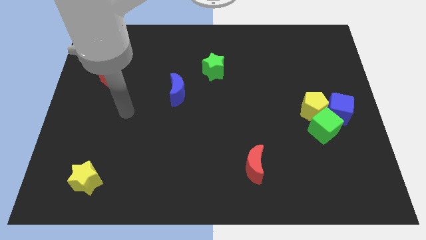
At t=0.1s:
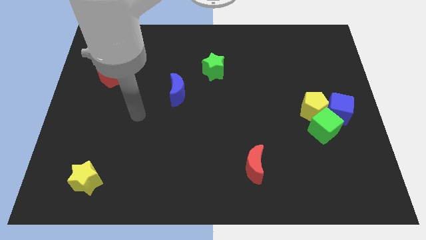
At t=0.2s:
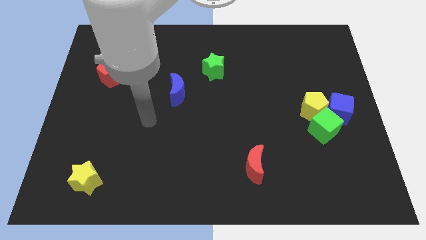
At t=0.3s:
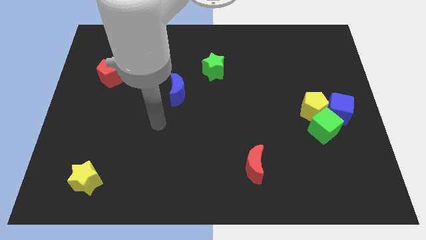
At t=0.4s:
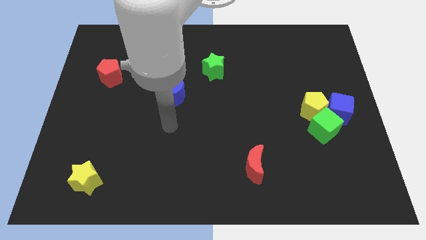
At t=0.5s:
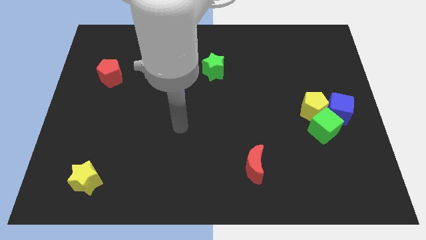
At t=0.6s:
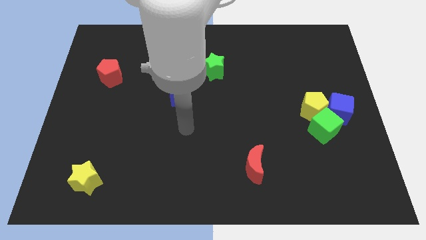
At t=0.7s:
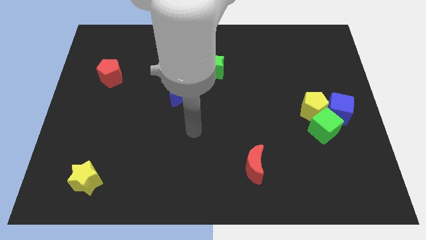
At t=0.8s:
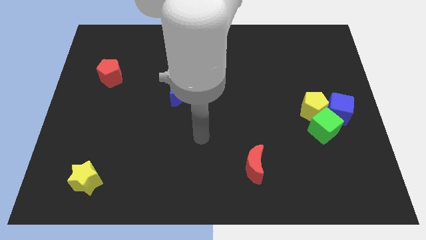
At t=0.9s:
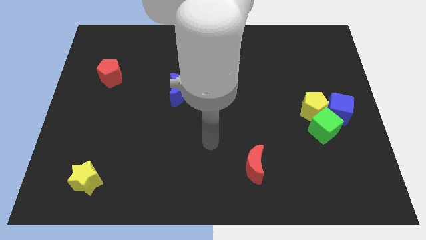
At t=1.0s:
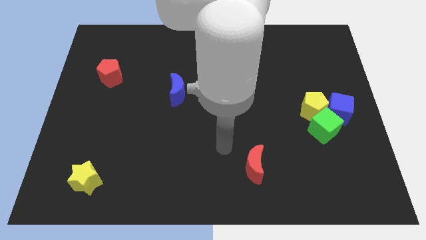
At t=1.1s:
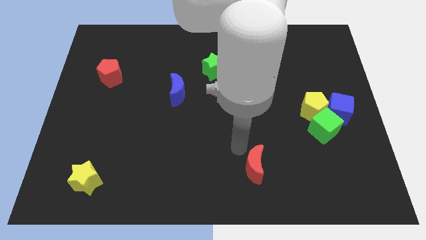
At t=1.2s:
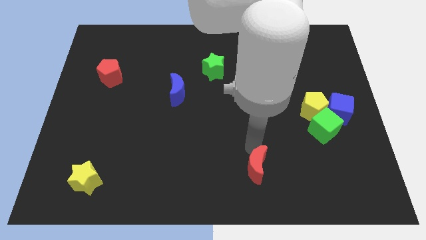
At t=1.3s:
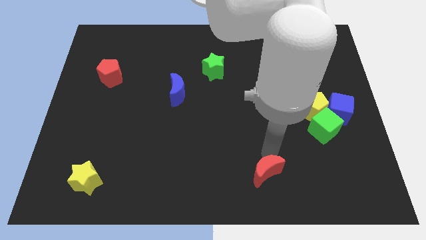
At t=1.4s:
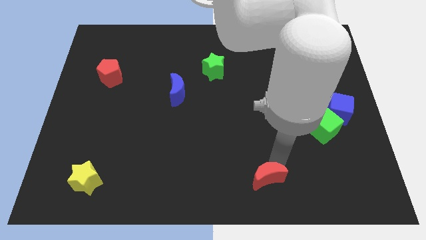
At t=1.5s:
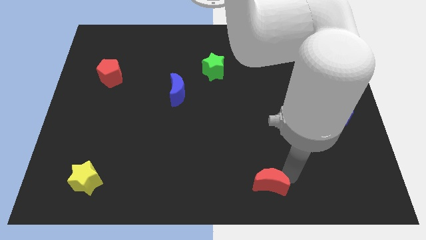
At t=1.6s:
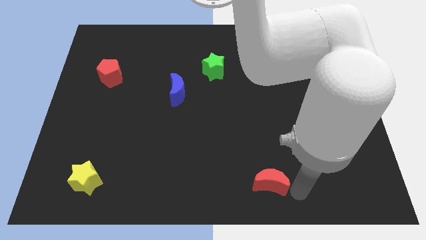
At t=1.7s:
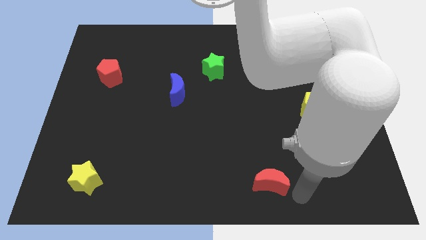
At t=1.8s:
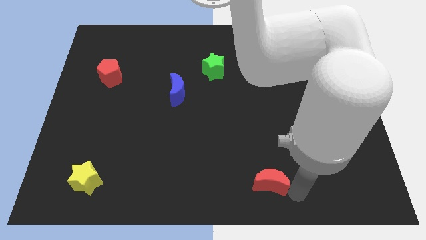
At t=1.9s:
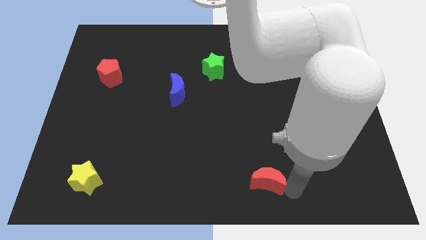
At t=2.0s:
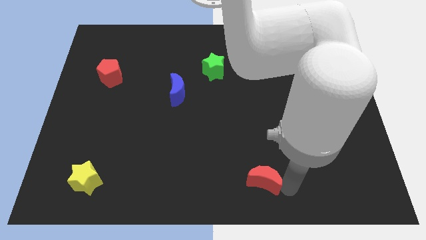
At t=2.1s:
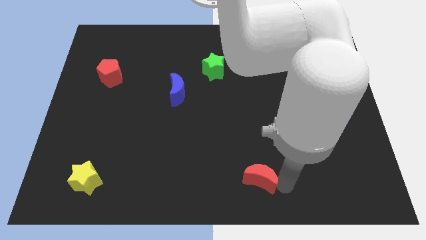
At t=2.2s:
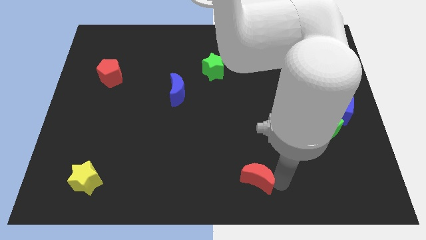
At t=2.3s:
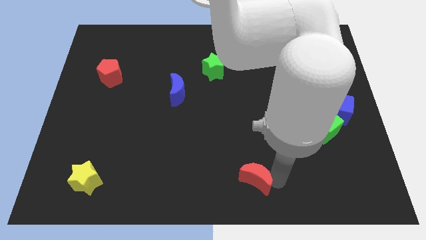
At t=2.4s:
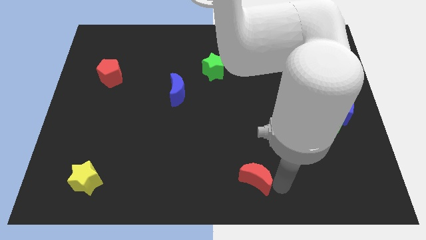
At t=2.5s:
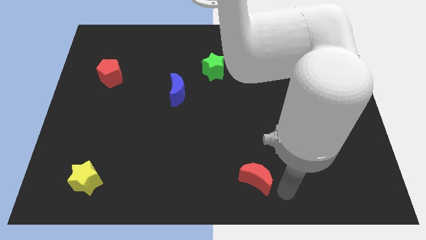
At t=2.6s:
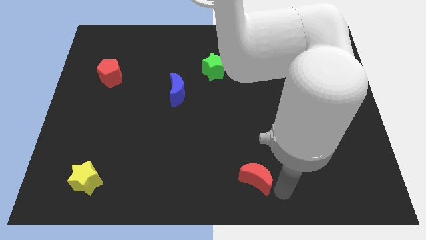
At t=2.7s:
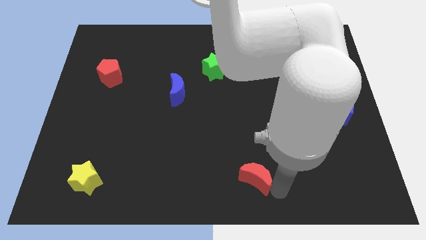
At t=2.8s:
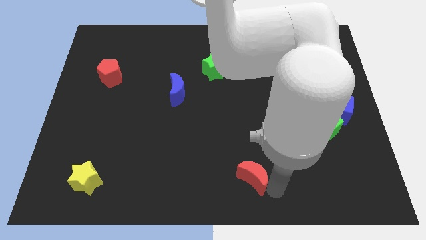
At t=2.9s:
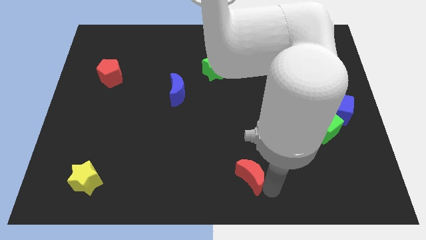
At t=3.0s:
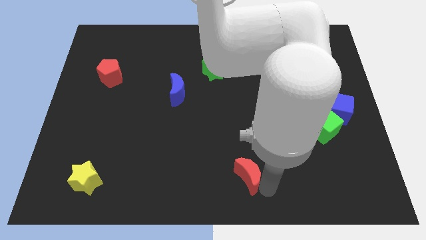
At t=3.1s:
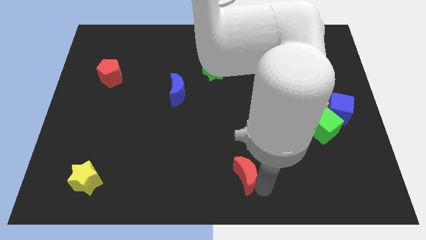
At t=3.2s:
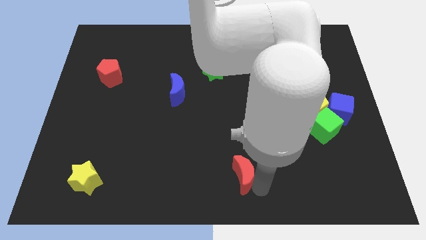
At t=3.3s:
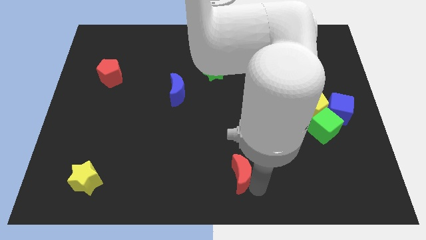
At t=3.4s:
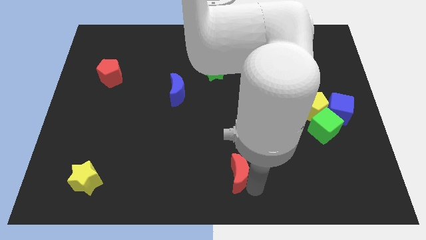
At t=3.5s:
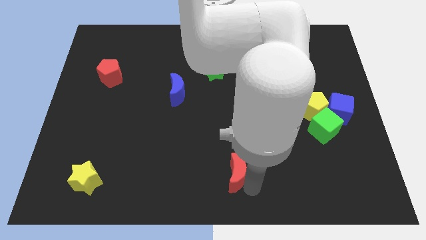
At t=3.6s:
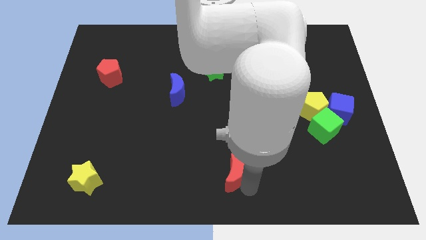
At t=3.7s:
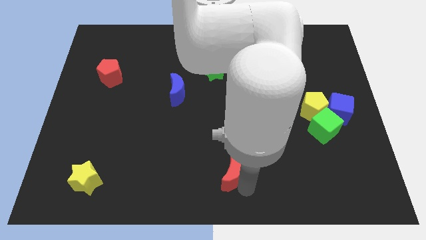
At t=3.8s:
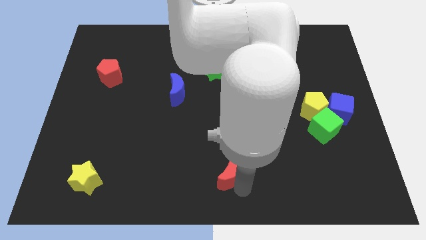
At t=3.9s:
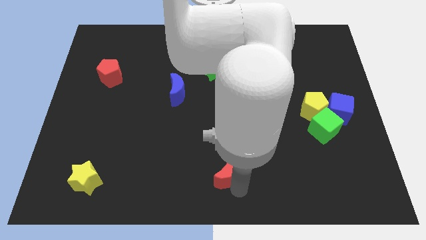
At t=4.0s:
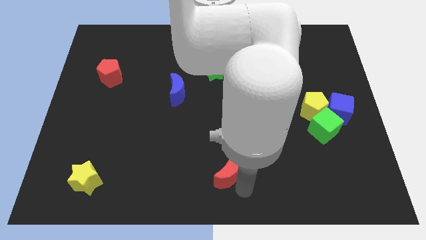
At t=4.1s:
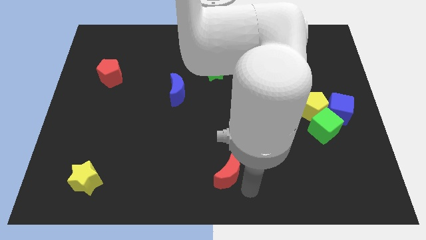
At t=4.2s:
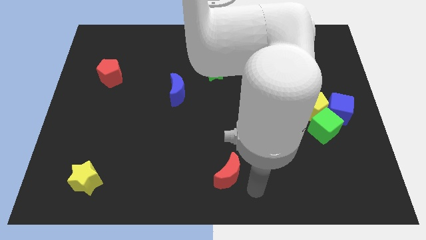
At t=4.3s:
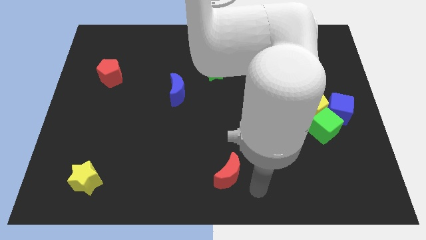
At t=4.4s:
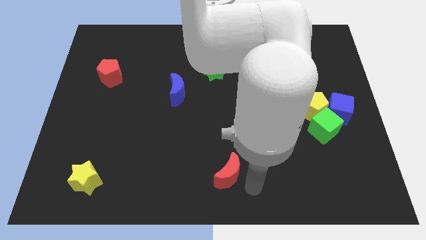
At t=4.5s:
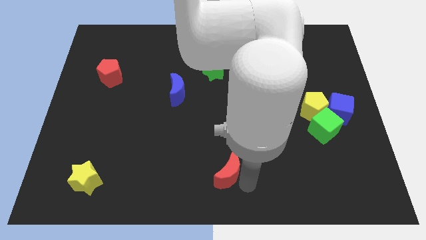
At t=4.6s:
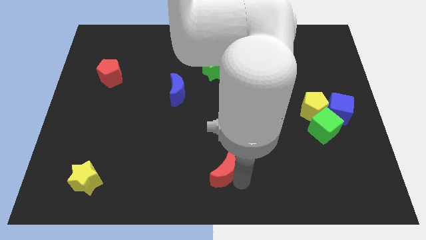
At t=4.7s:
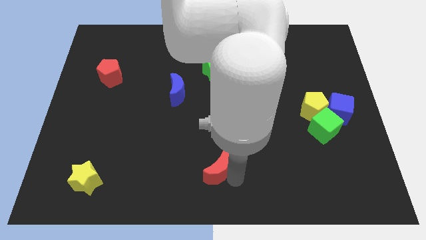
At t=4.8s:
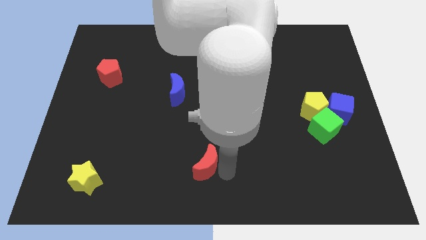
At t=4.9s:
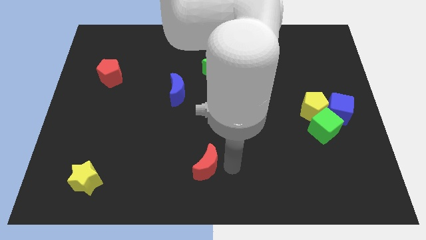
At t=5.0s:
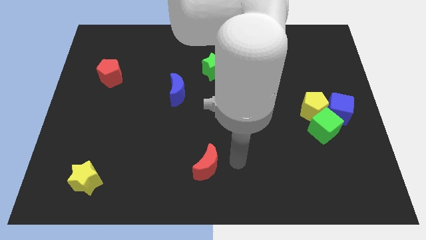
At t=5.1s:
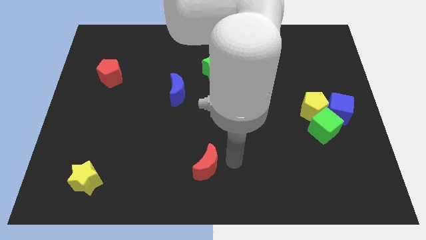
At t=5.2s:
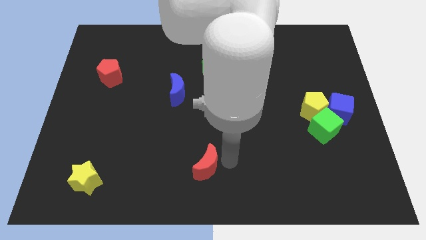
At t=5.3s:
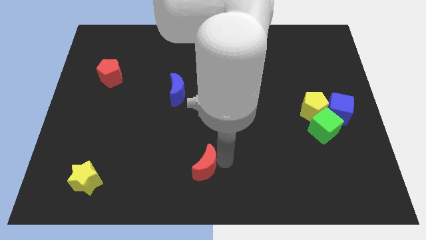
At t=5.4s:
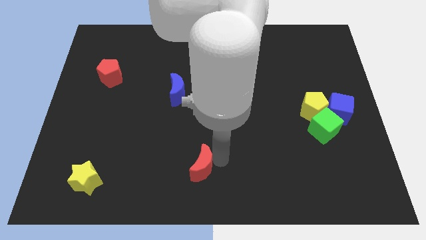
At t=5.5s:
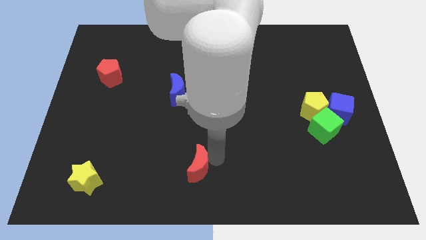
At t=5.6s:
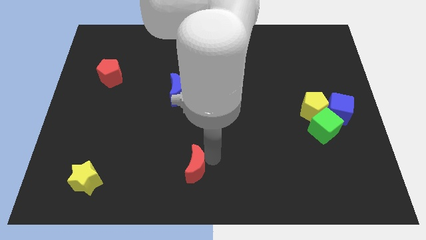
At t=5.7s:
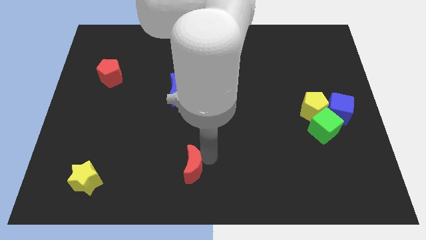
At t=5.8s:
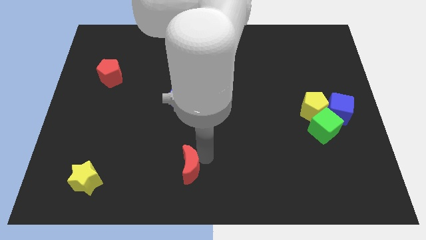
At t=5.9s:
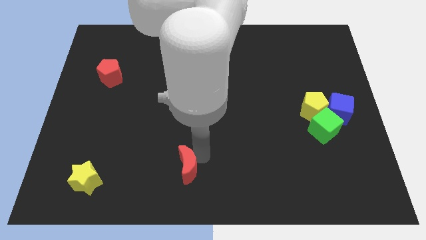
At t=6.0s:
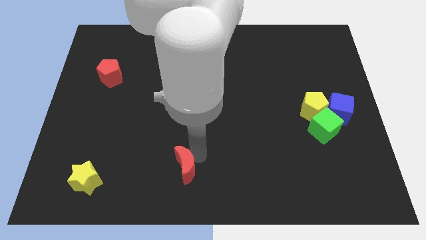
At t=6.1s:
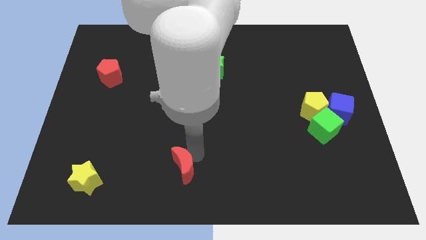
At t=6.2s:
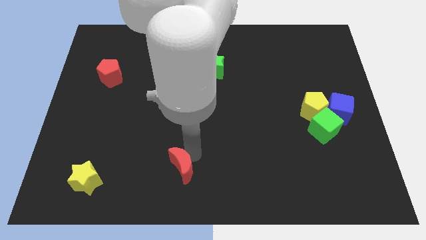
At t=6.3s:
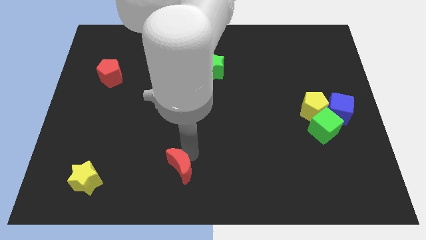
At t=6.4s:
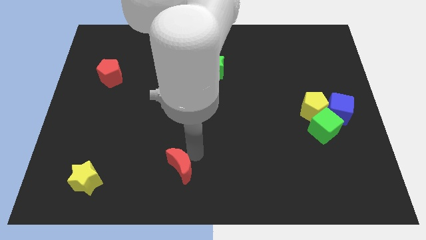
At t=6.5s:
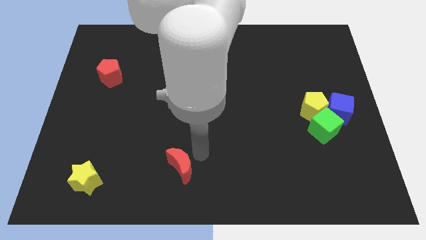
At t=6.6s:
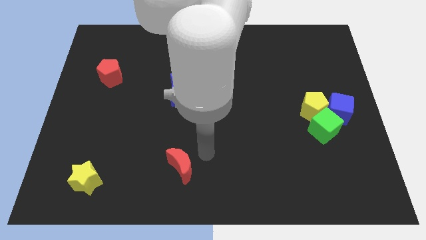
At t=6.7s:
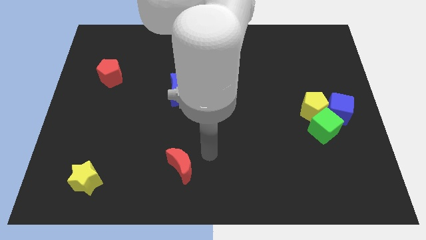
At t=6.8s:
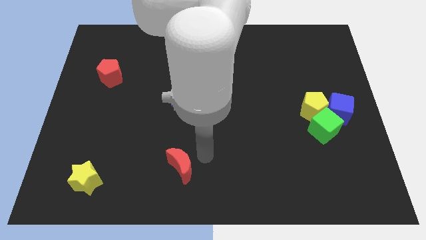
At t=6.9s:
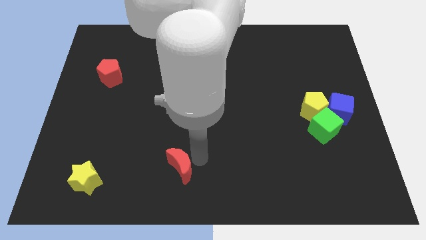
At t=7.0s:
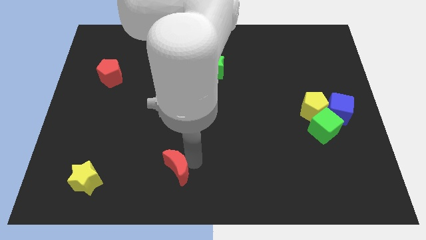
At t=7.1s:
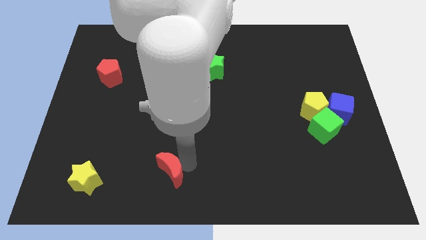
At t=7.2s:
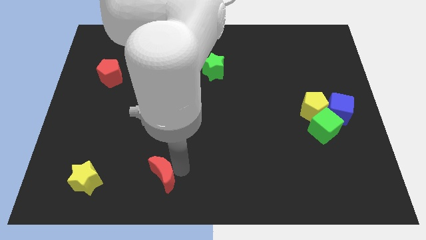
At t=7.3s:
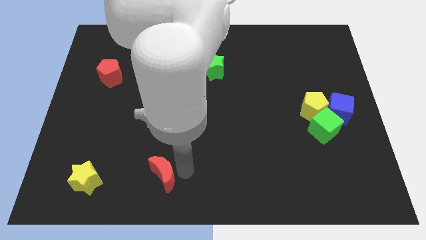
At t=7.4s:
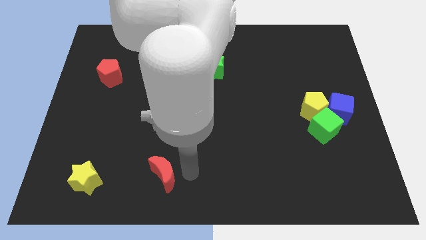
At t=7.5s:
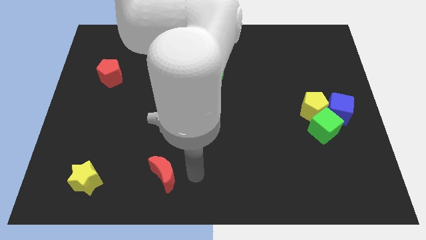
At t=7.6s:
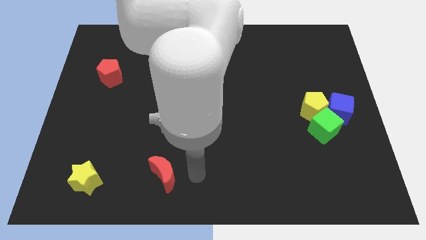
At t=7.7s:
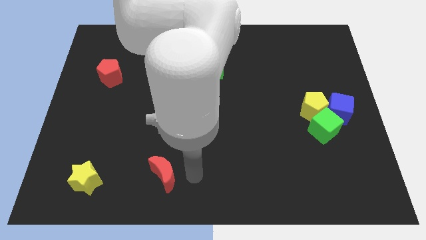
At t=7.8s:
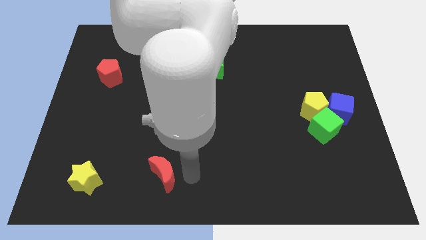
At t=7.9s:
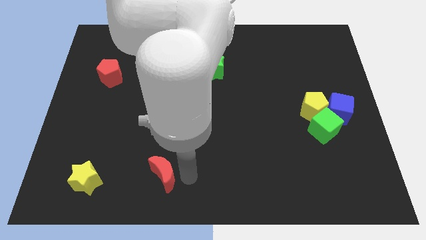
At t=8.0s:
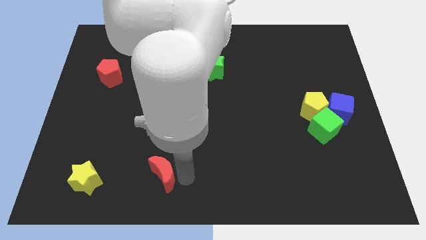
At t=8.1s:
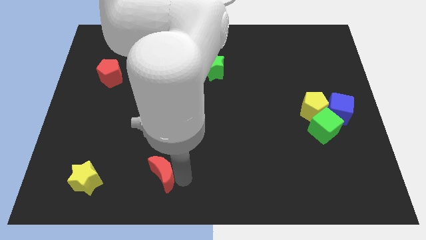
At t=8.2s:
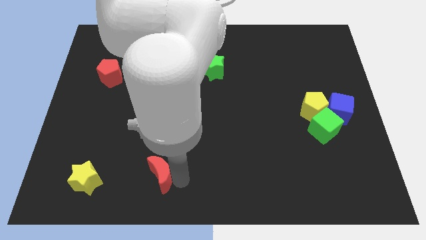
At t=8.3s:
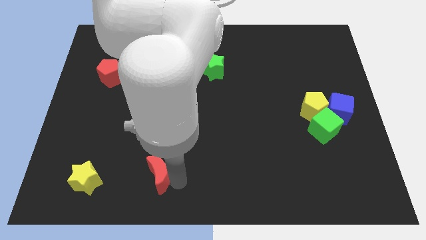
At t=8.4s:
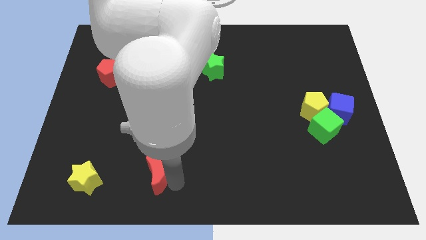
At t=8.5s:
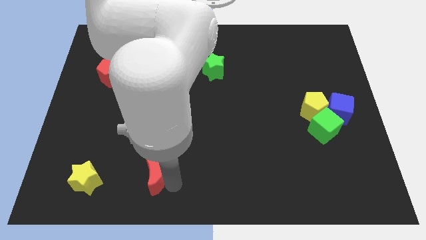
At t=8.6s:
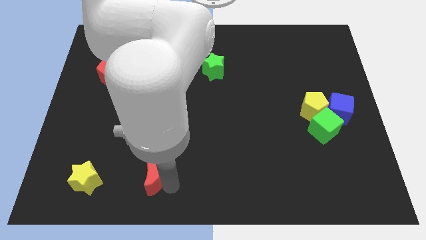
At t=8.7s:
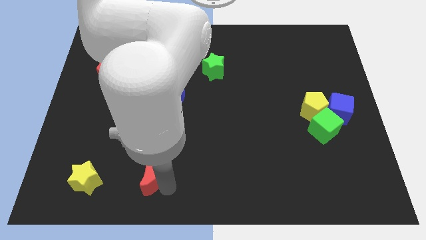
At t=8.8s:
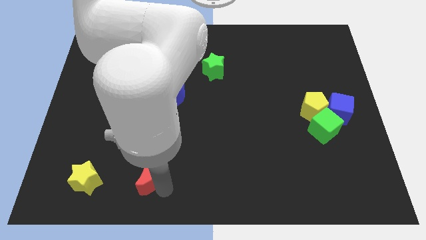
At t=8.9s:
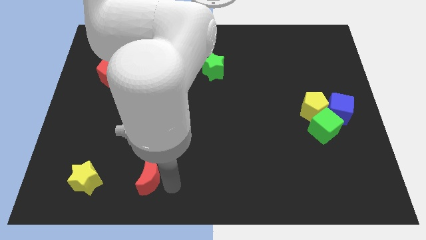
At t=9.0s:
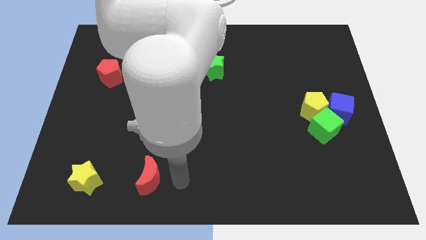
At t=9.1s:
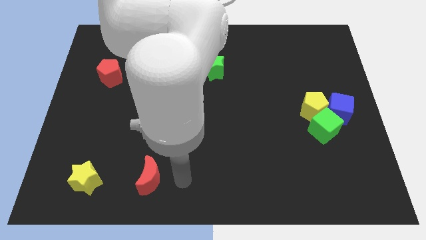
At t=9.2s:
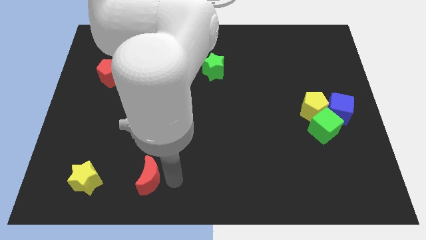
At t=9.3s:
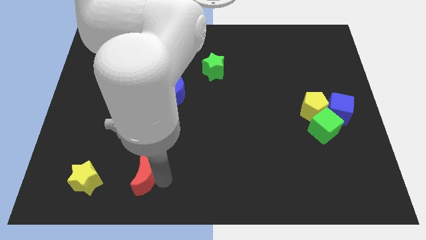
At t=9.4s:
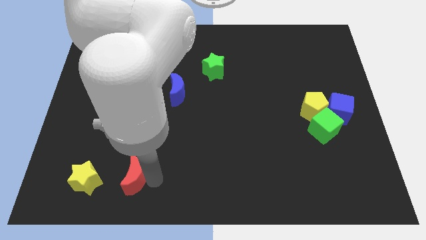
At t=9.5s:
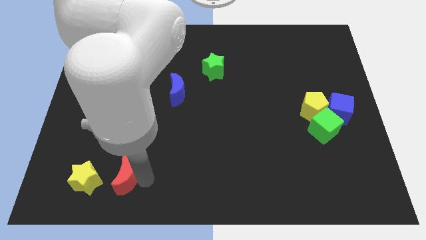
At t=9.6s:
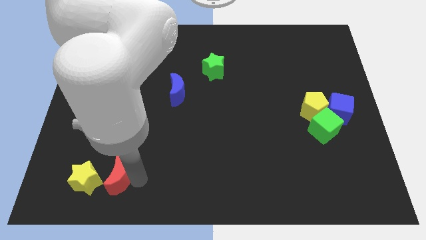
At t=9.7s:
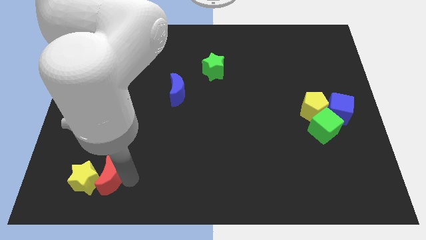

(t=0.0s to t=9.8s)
put the red moon towards the yellow star
